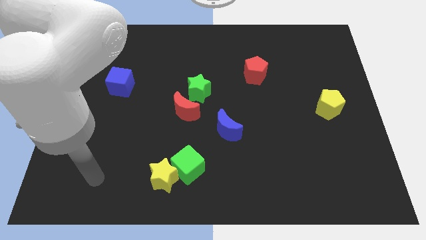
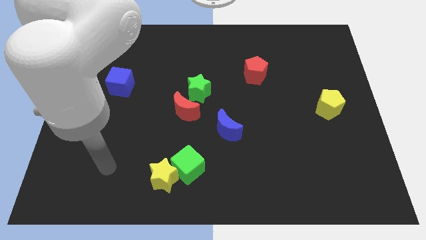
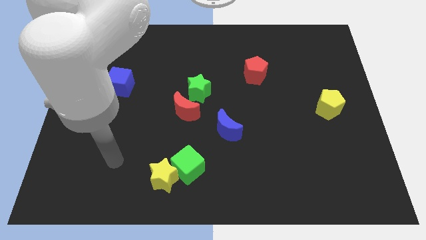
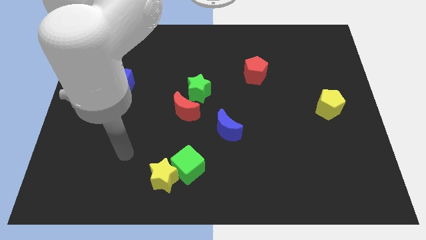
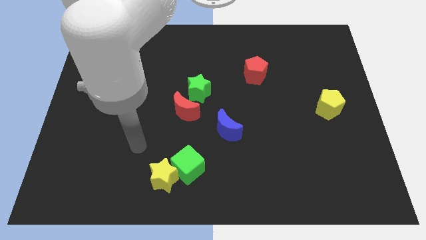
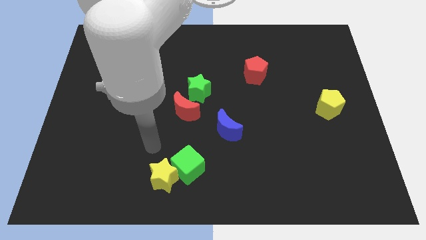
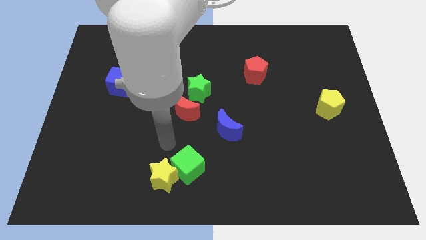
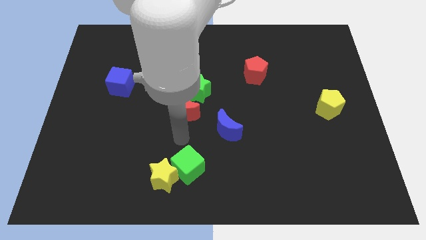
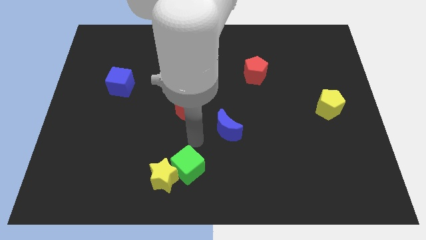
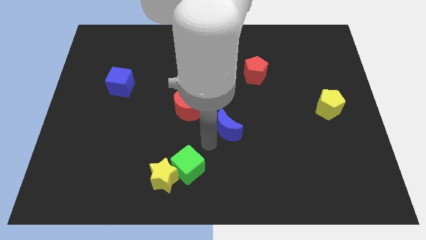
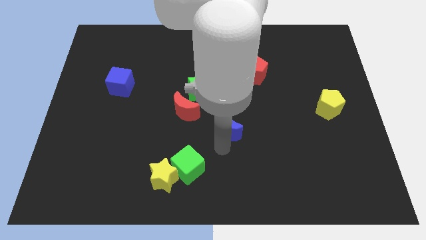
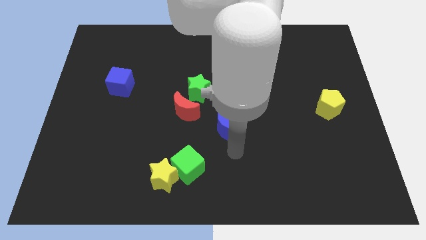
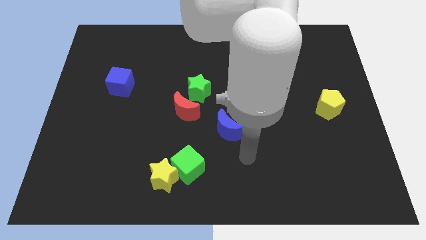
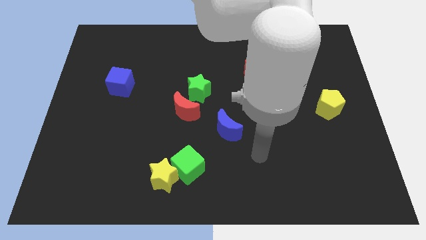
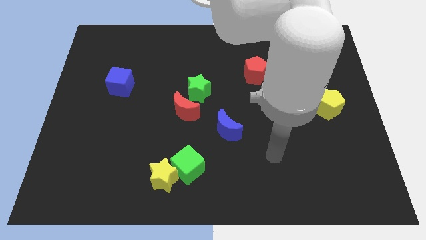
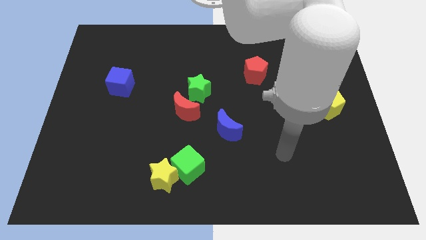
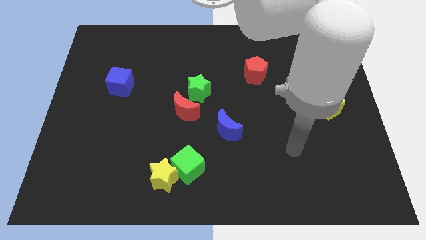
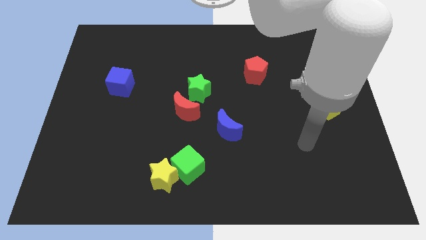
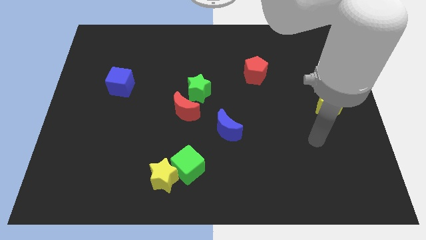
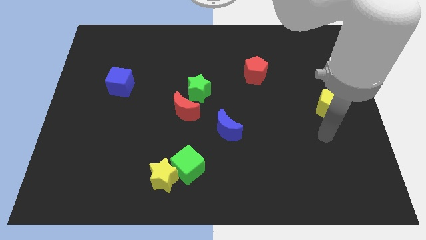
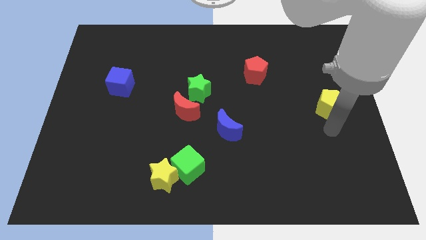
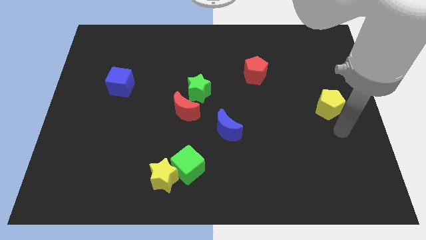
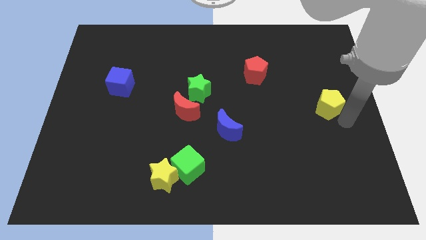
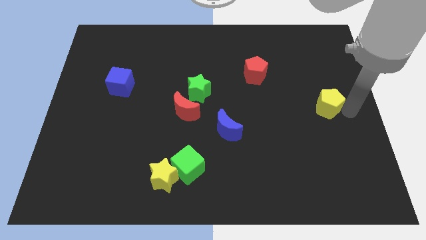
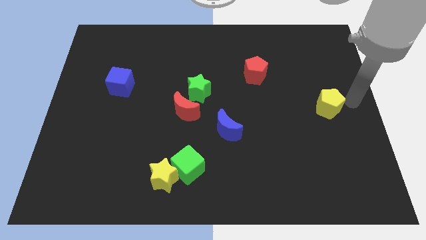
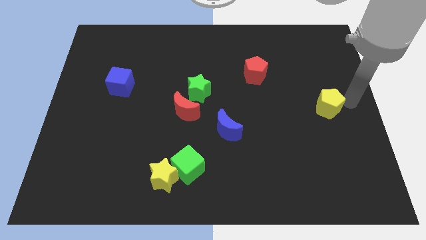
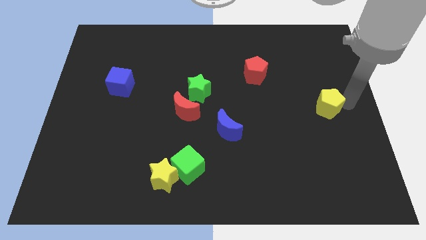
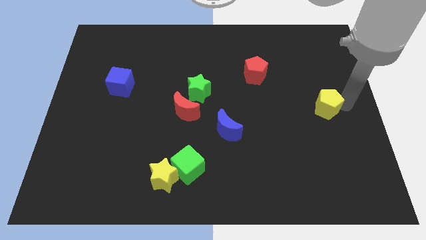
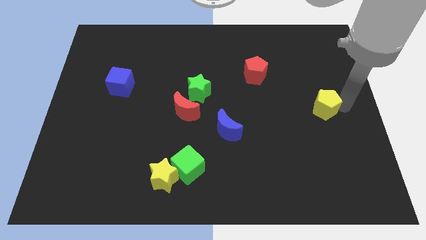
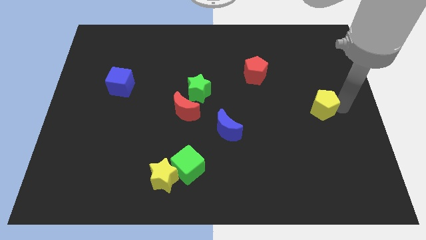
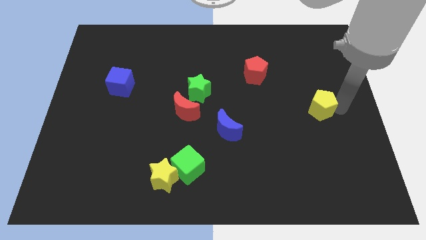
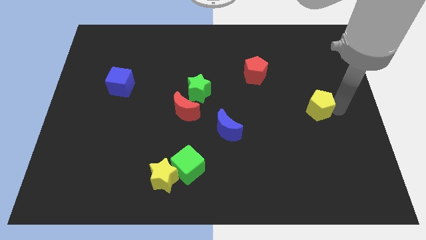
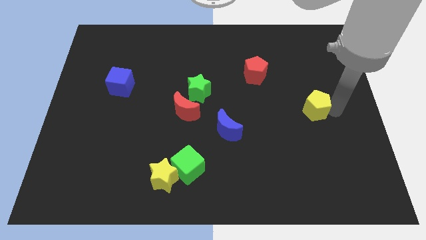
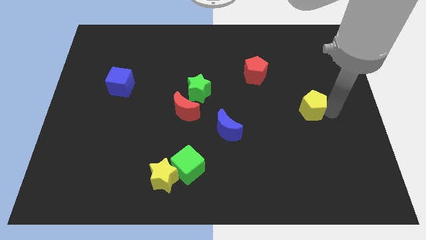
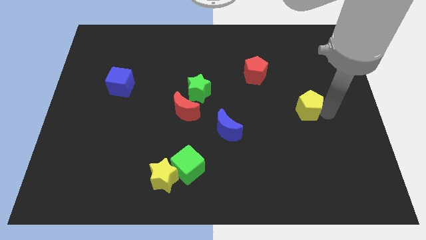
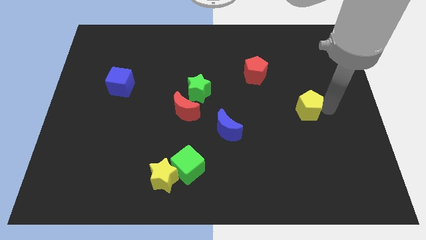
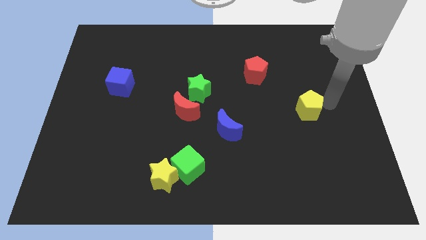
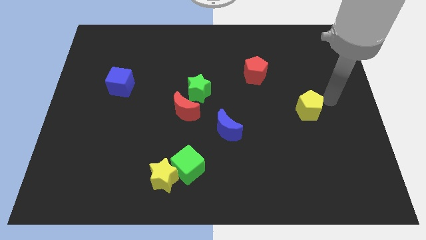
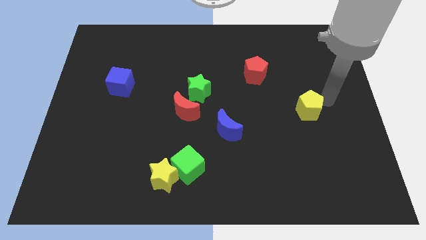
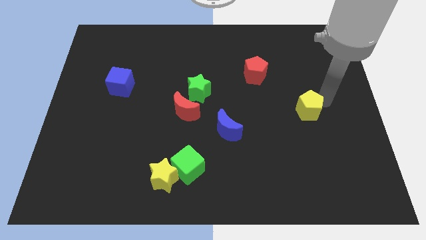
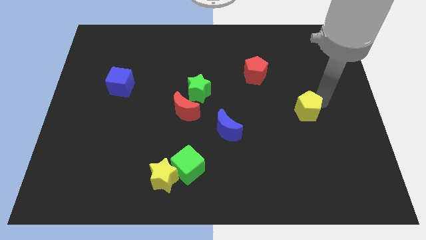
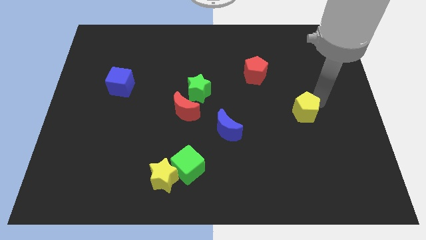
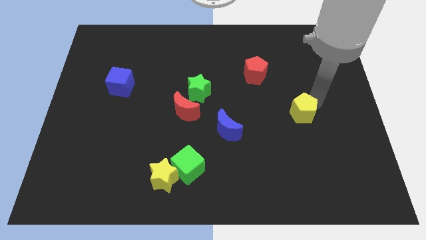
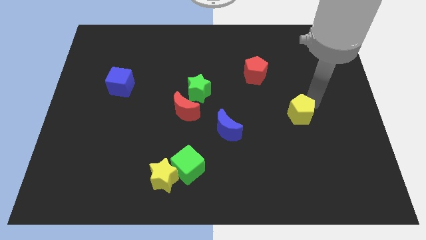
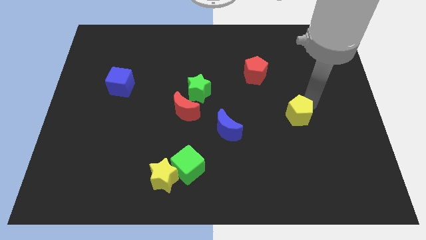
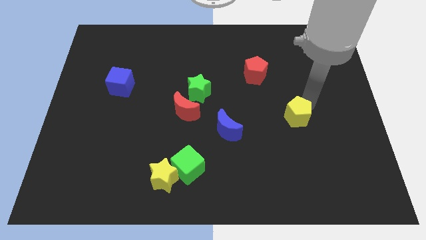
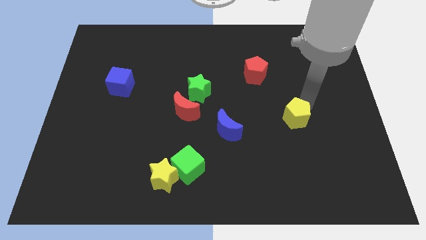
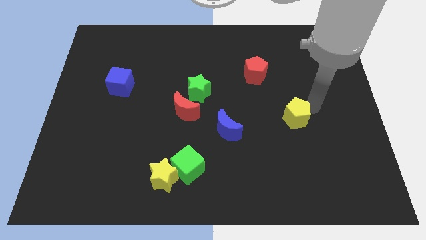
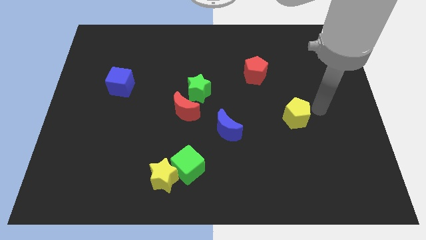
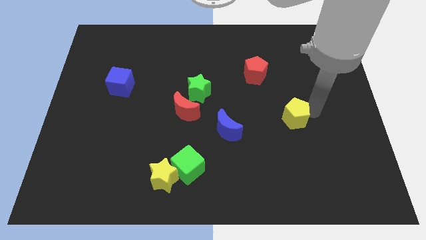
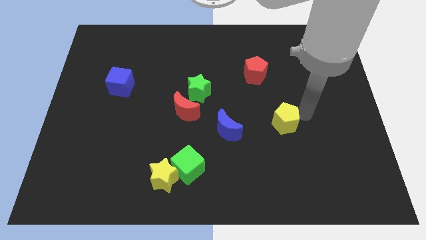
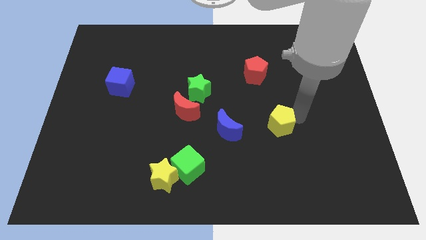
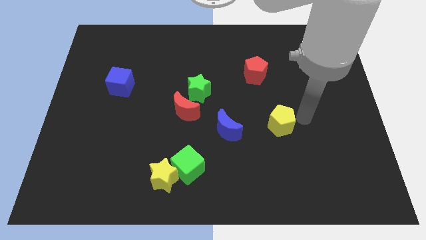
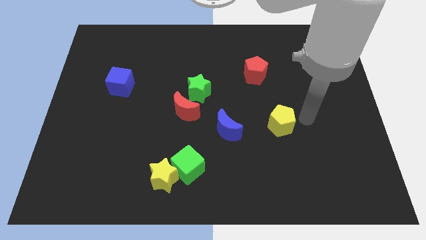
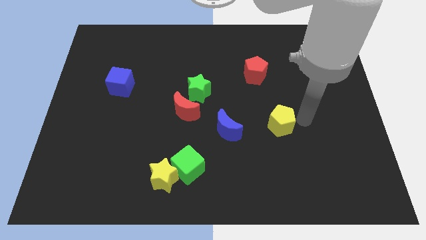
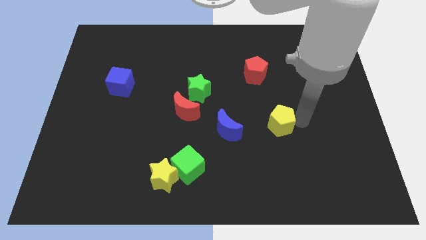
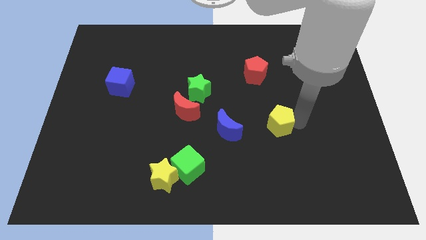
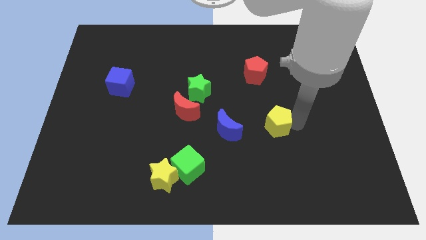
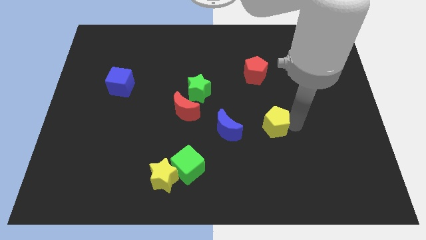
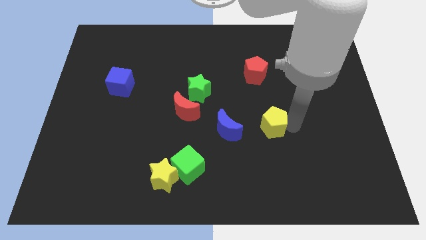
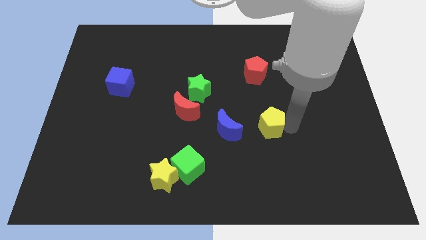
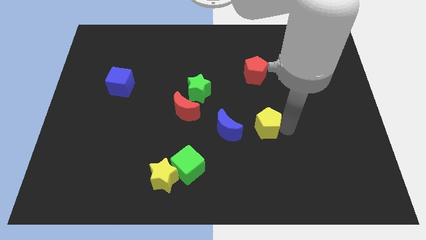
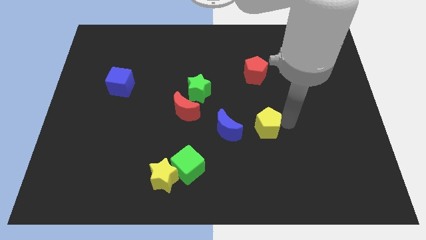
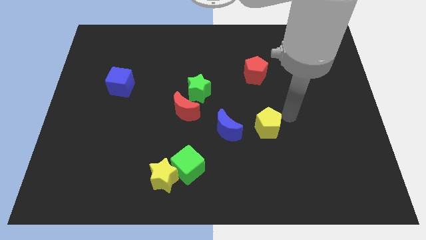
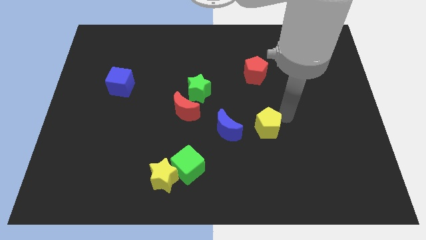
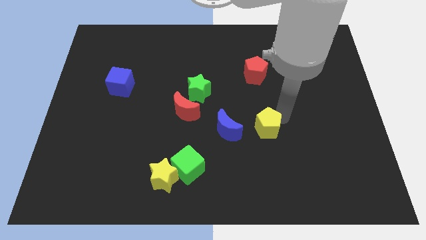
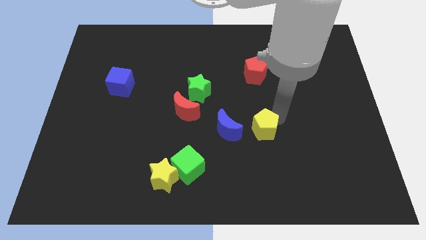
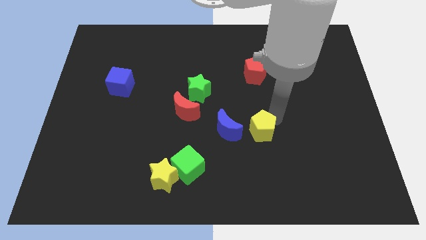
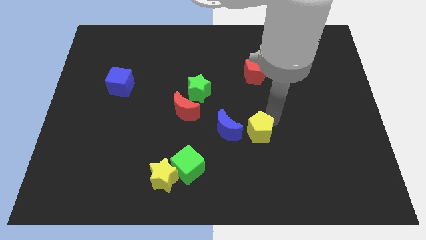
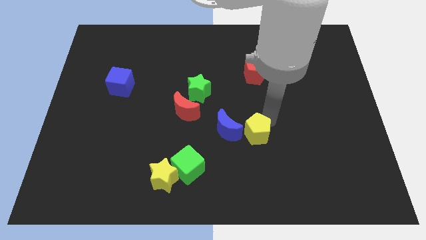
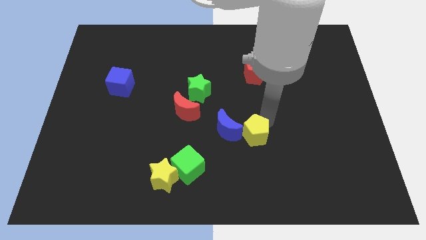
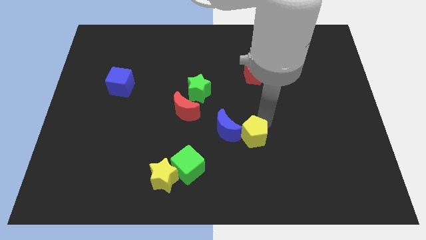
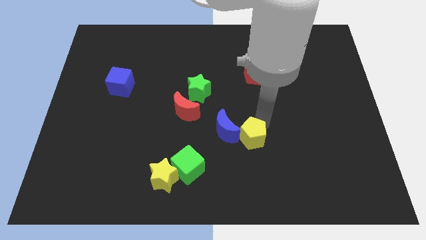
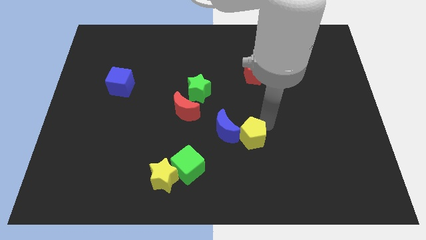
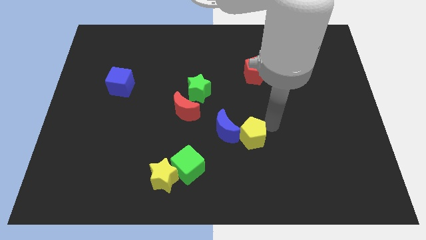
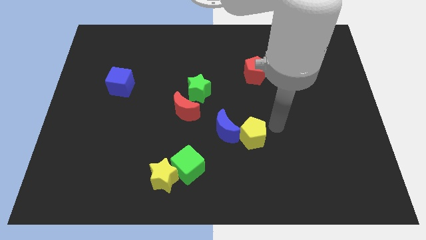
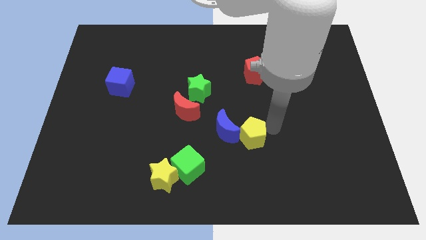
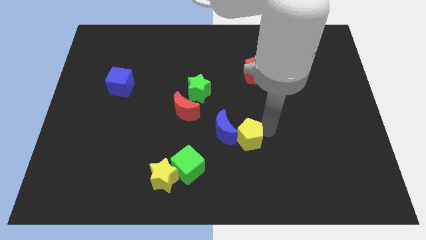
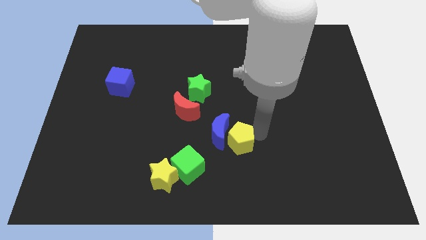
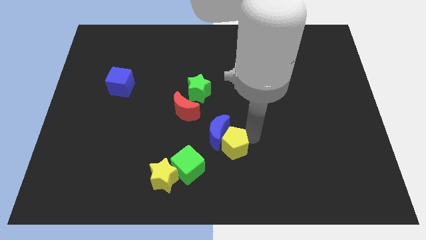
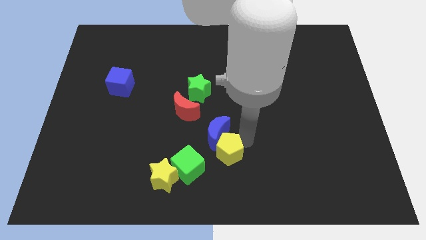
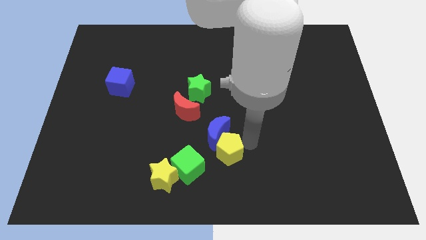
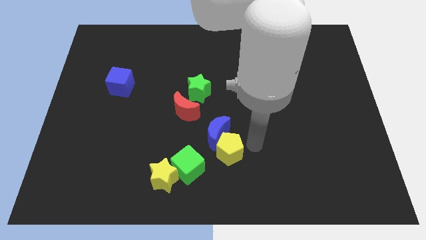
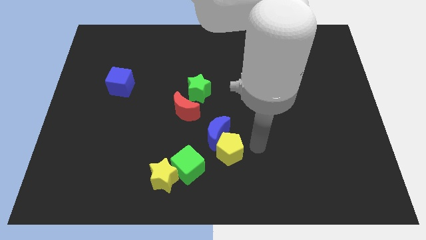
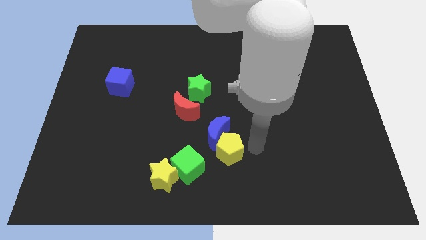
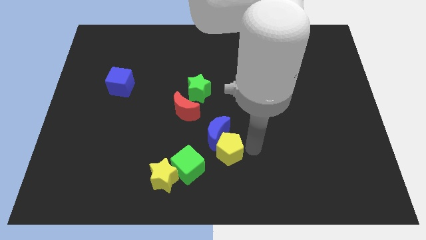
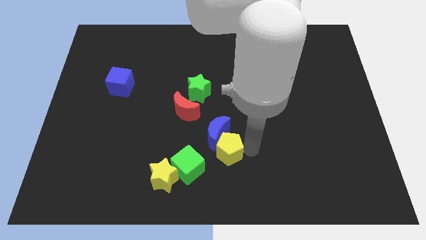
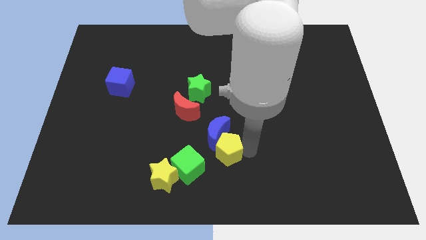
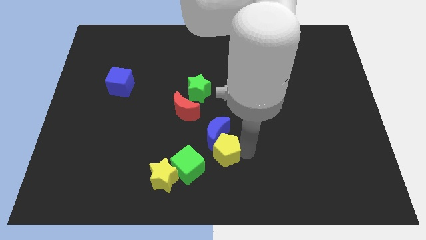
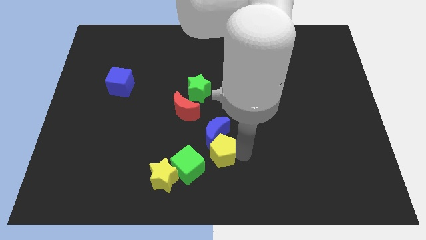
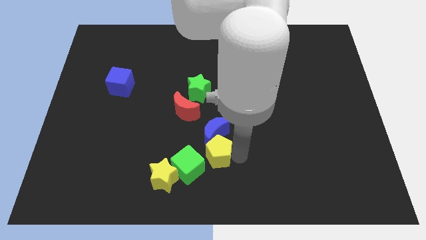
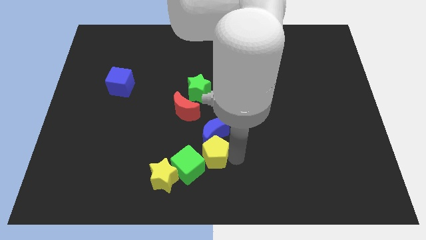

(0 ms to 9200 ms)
put the yellow pentagon towards the green cube
